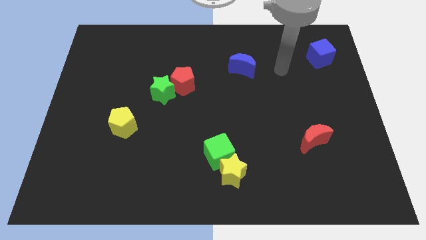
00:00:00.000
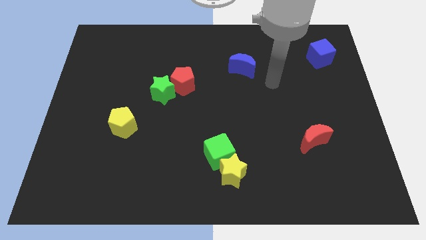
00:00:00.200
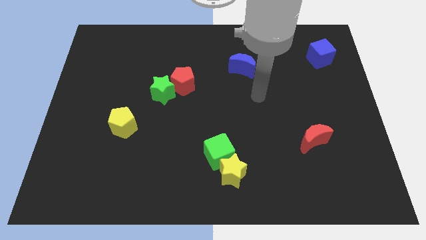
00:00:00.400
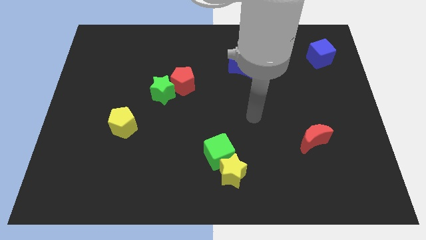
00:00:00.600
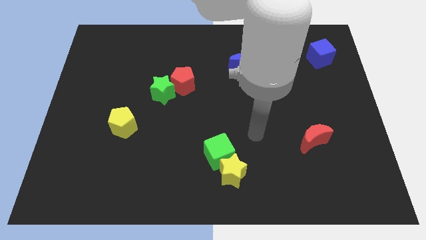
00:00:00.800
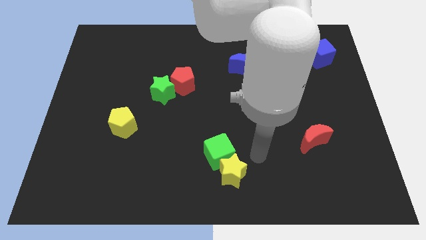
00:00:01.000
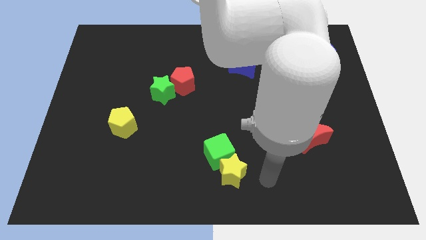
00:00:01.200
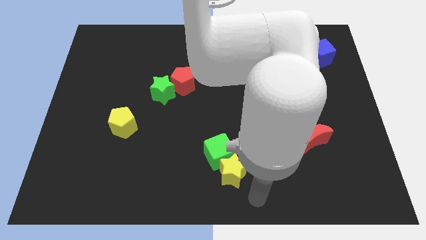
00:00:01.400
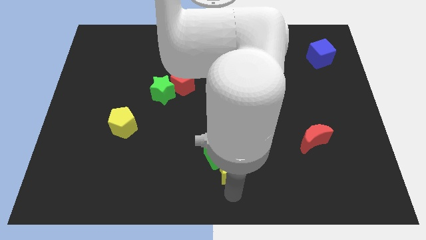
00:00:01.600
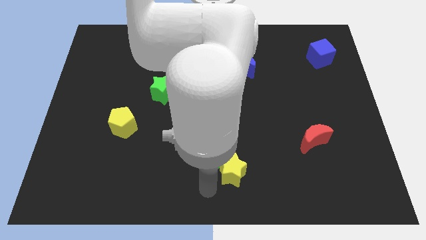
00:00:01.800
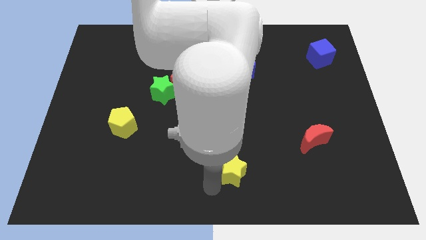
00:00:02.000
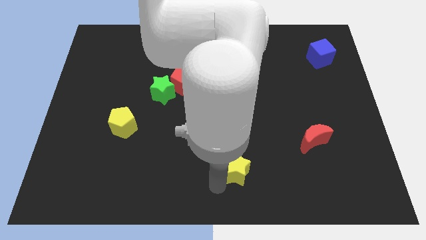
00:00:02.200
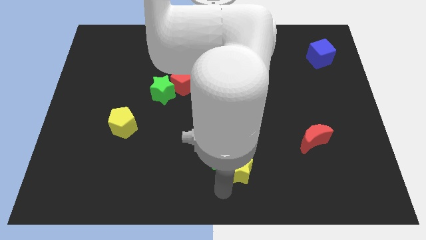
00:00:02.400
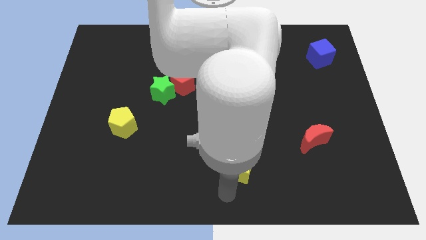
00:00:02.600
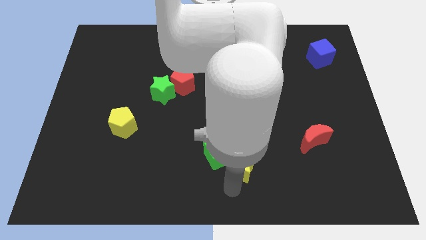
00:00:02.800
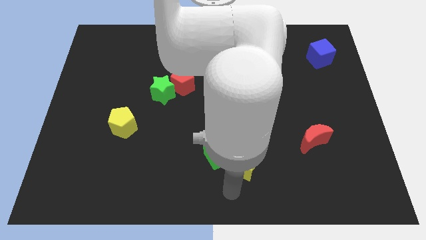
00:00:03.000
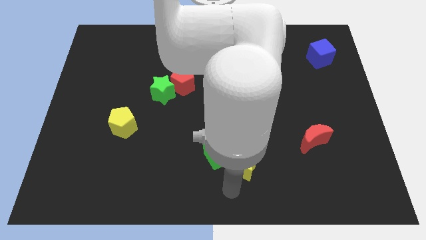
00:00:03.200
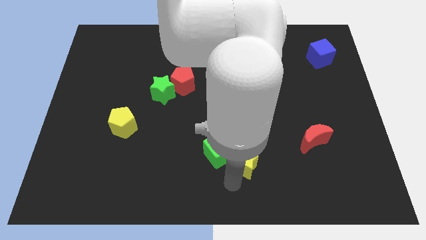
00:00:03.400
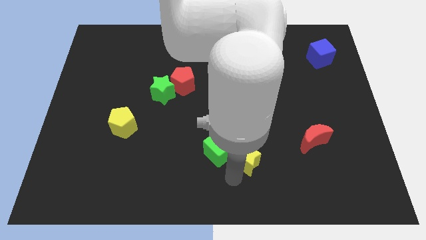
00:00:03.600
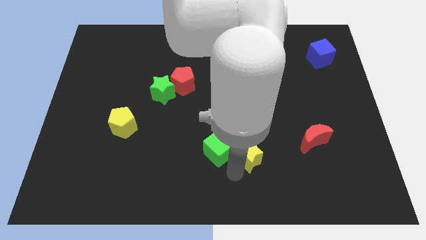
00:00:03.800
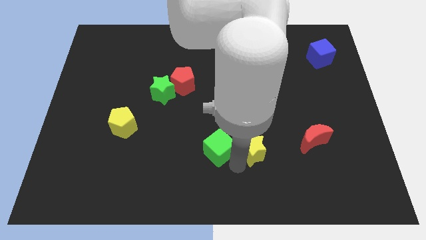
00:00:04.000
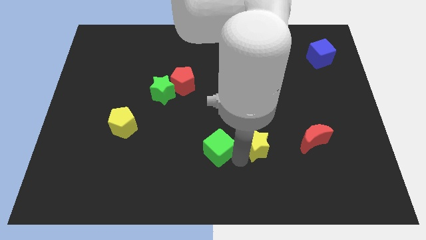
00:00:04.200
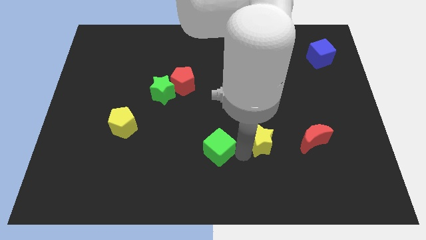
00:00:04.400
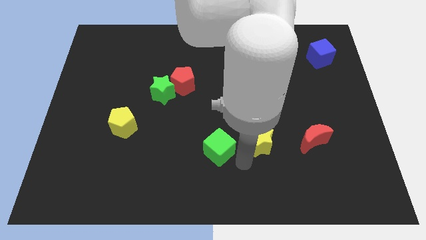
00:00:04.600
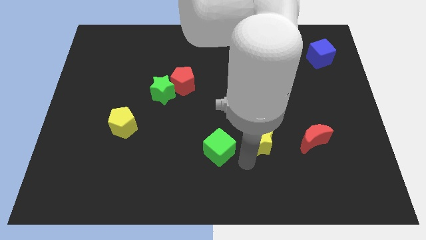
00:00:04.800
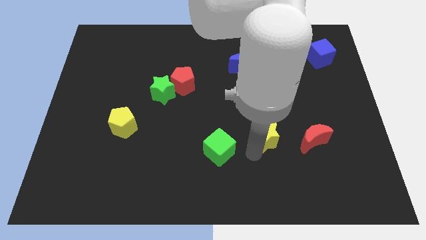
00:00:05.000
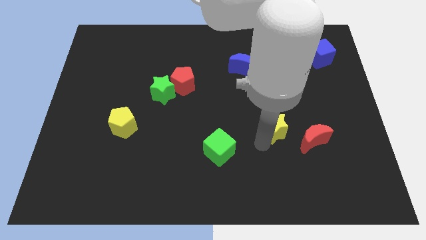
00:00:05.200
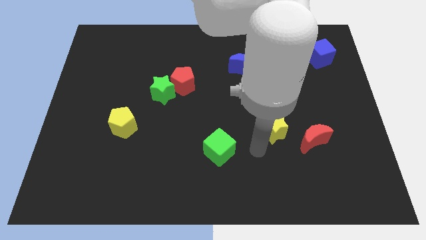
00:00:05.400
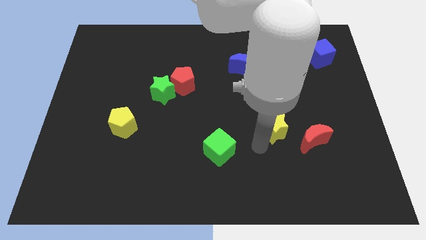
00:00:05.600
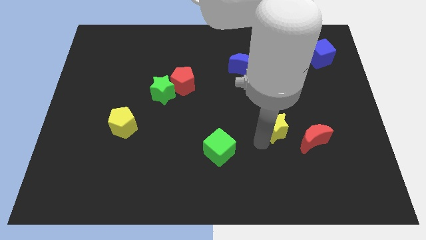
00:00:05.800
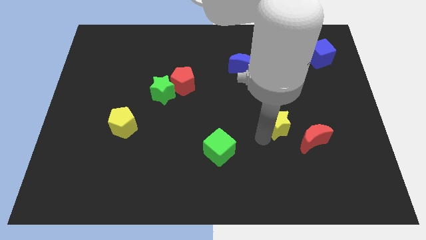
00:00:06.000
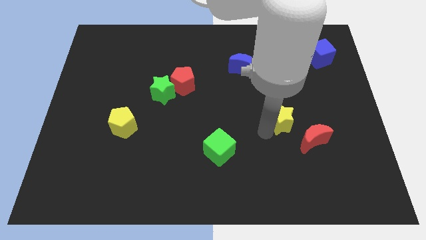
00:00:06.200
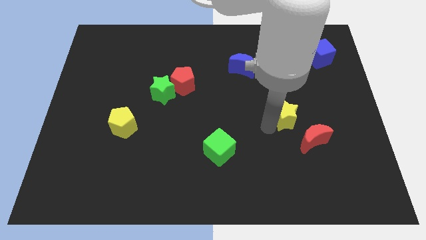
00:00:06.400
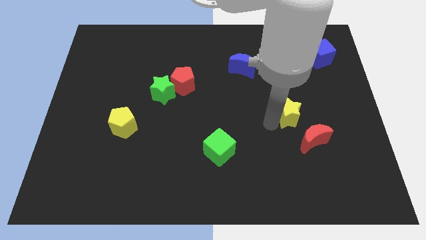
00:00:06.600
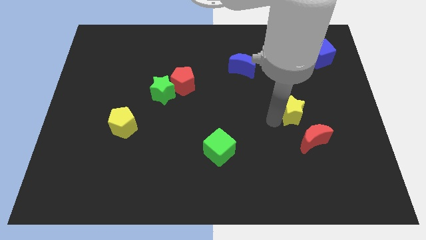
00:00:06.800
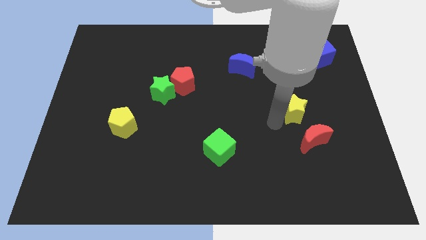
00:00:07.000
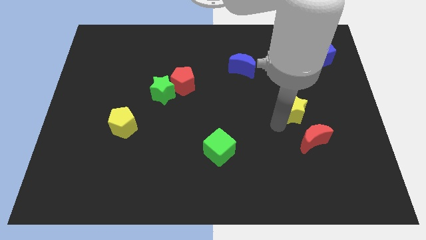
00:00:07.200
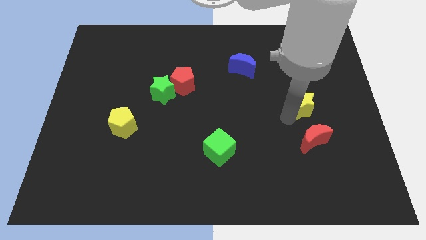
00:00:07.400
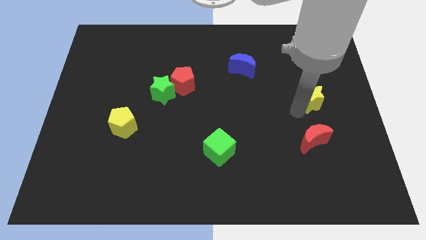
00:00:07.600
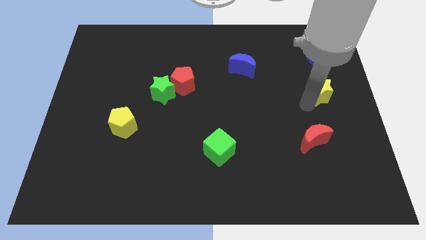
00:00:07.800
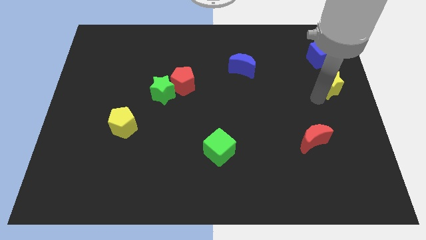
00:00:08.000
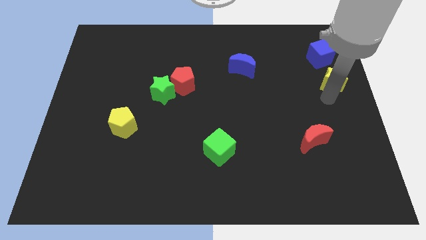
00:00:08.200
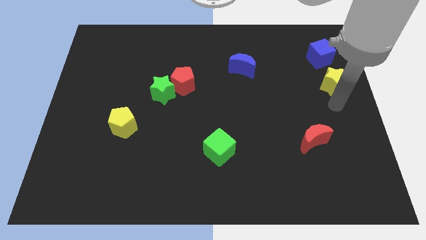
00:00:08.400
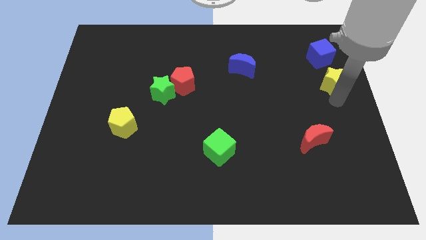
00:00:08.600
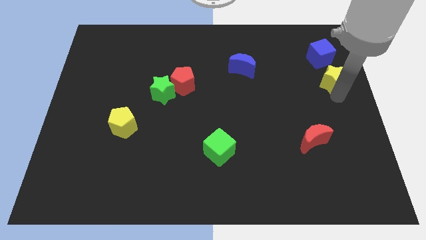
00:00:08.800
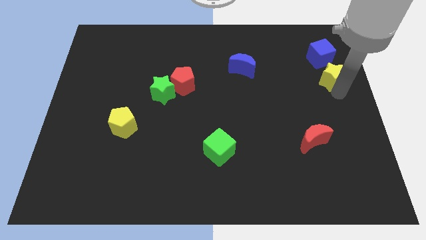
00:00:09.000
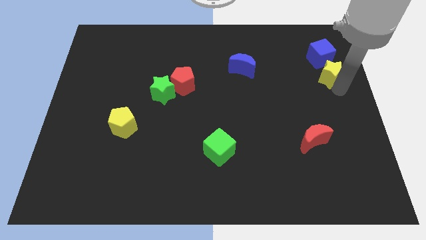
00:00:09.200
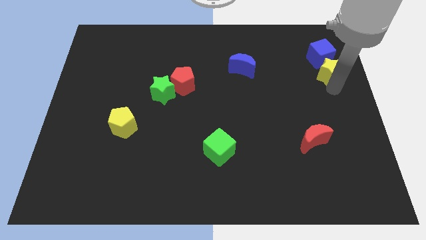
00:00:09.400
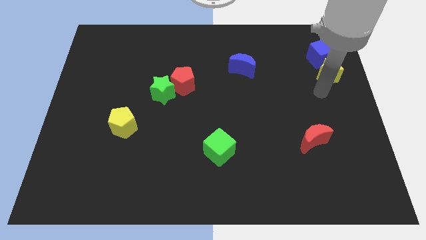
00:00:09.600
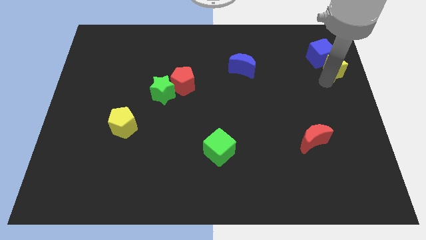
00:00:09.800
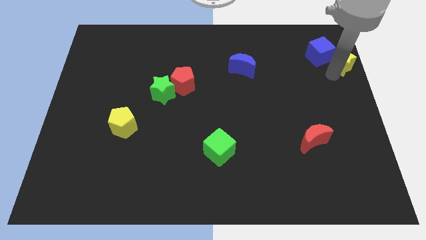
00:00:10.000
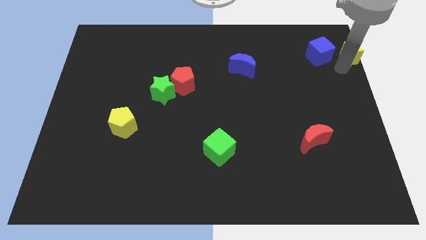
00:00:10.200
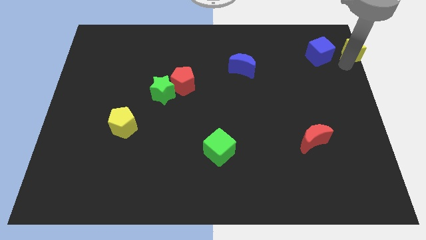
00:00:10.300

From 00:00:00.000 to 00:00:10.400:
slide the yellow star to the top right

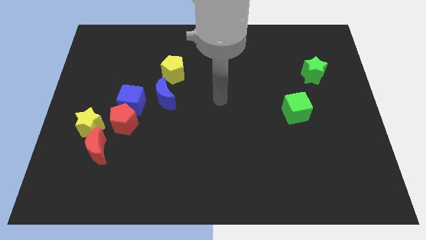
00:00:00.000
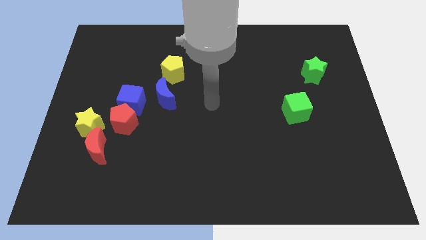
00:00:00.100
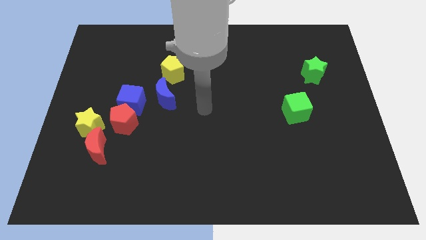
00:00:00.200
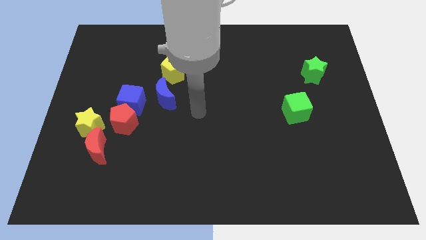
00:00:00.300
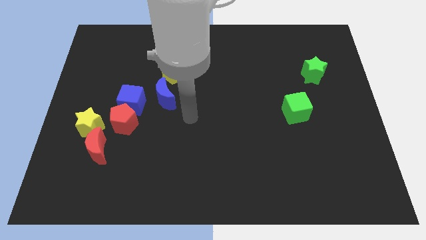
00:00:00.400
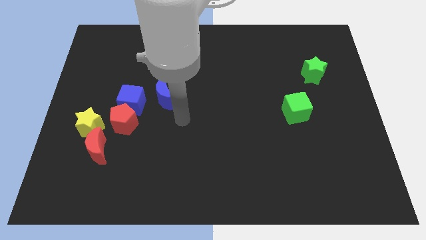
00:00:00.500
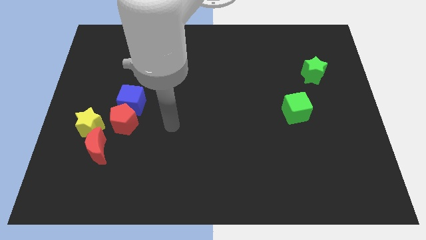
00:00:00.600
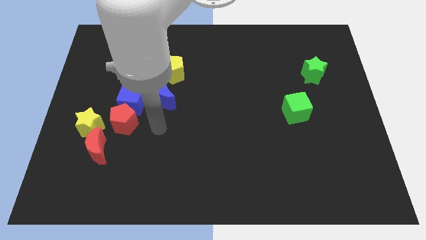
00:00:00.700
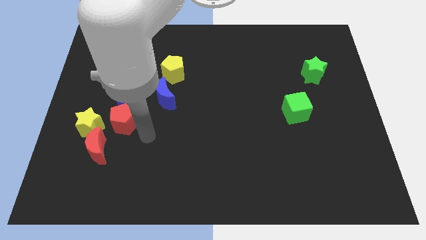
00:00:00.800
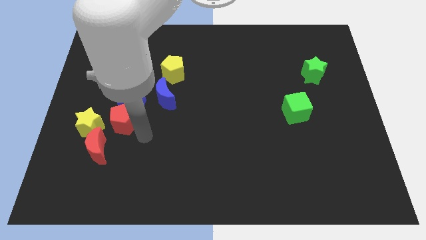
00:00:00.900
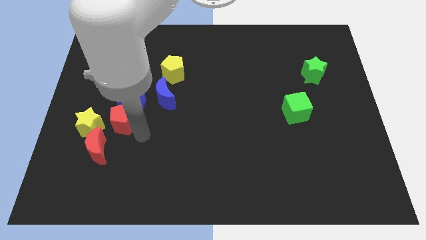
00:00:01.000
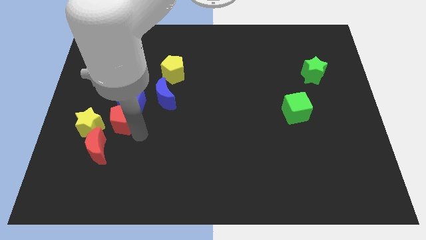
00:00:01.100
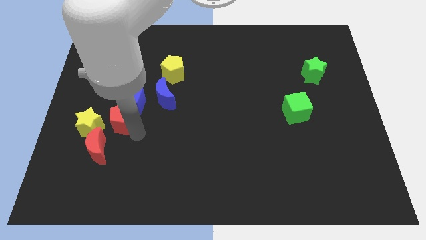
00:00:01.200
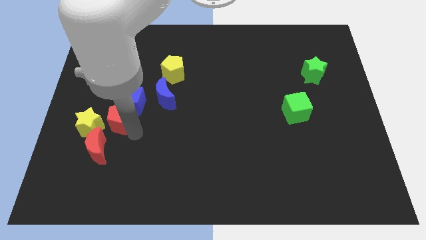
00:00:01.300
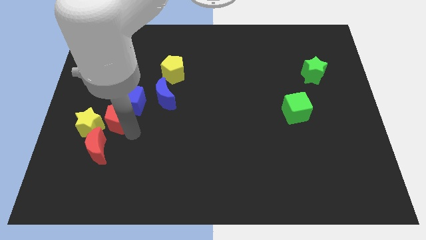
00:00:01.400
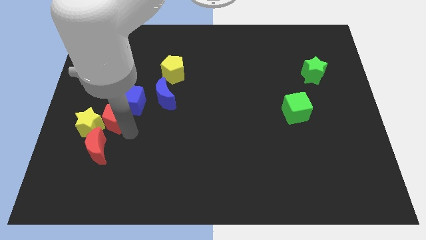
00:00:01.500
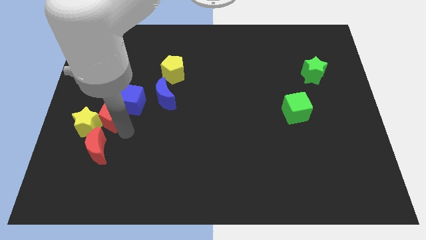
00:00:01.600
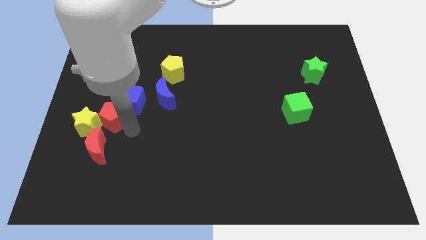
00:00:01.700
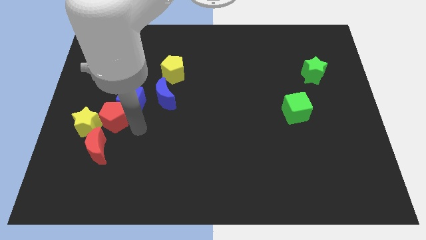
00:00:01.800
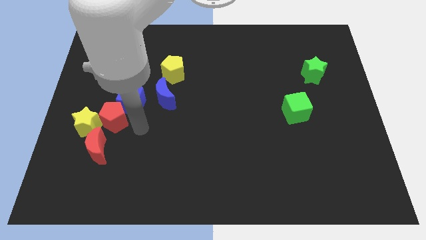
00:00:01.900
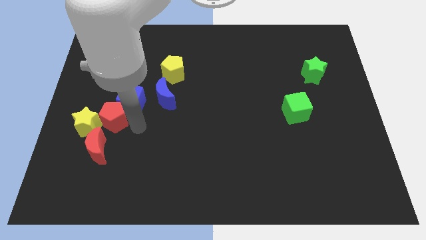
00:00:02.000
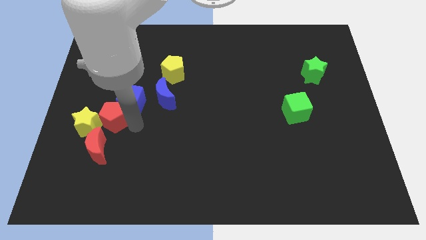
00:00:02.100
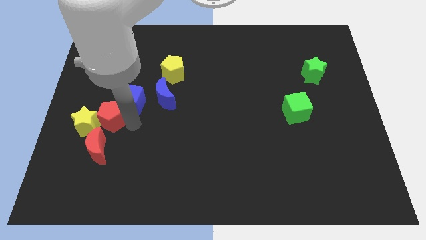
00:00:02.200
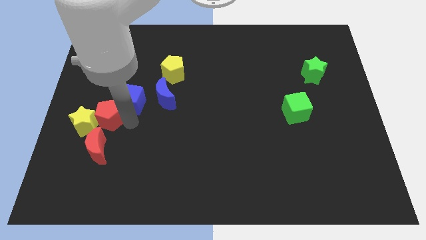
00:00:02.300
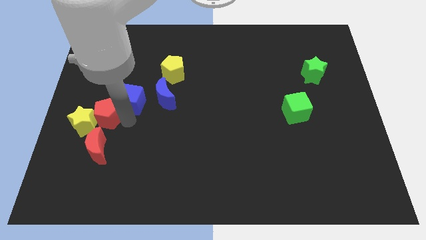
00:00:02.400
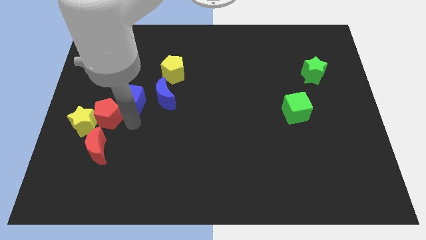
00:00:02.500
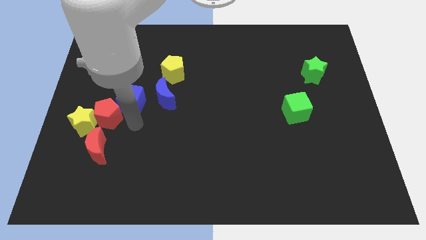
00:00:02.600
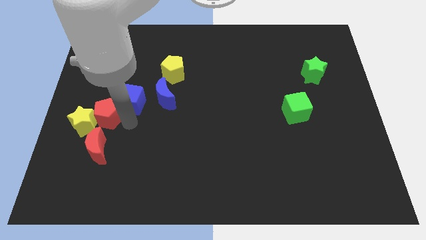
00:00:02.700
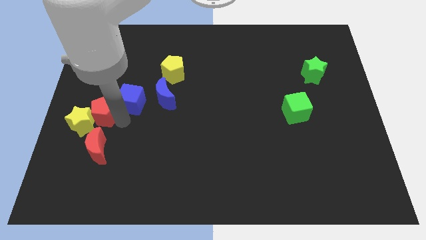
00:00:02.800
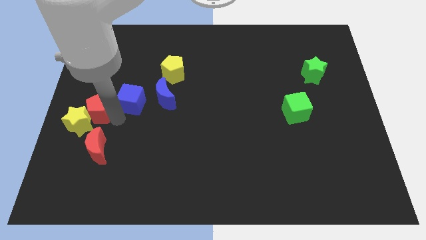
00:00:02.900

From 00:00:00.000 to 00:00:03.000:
move the red pentagon to the left side of the board
